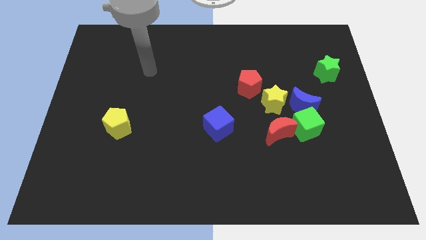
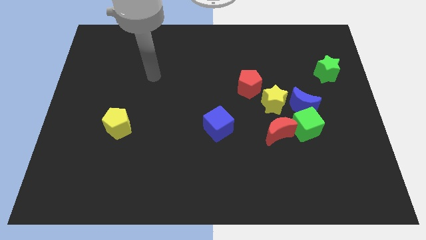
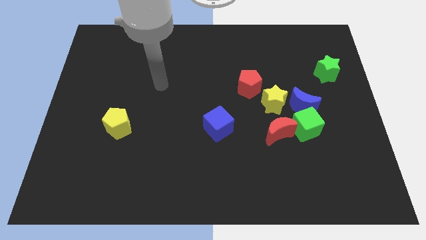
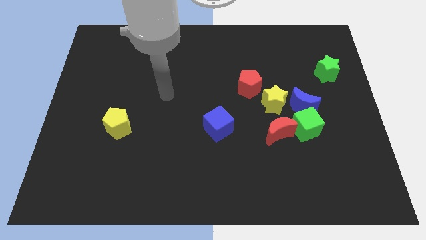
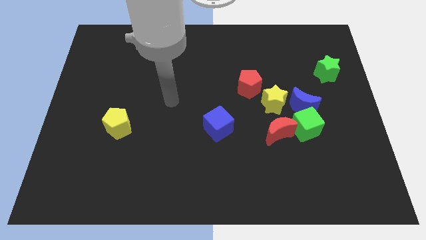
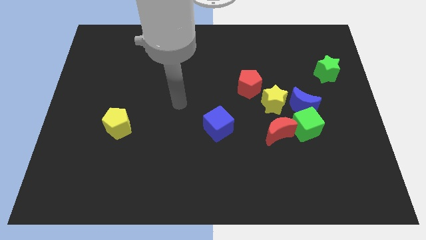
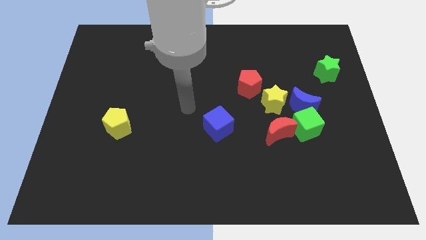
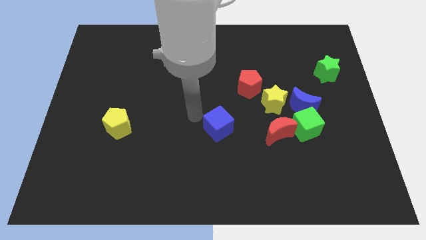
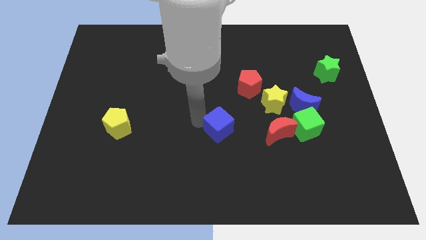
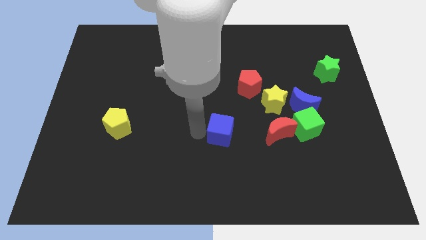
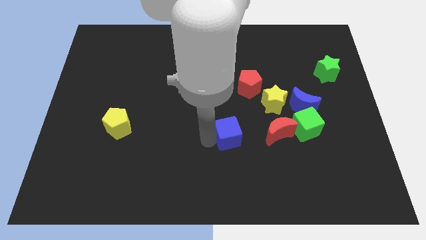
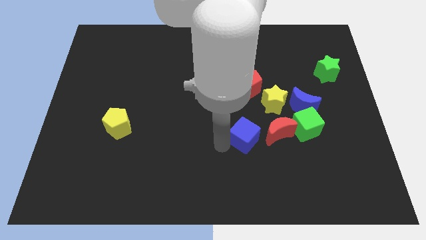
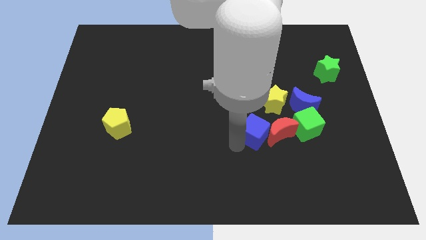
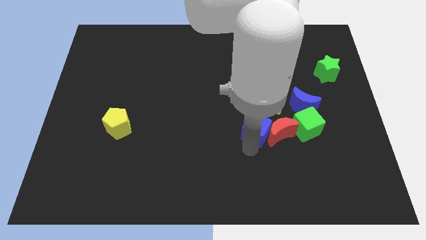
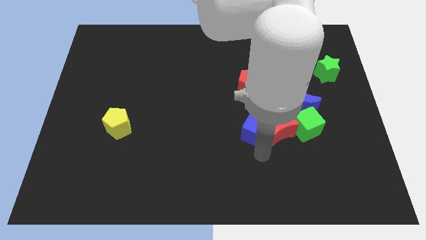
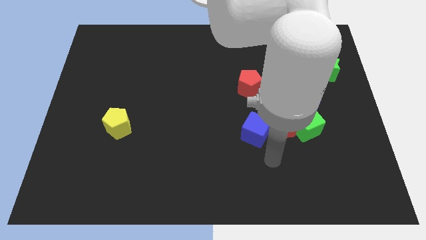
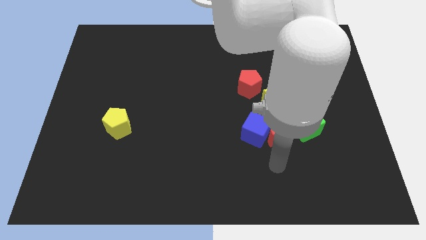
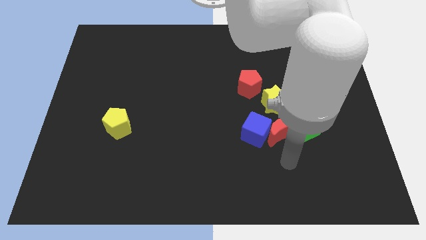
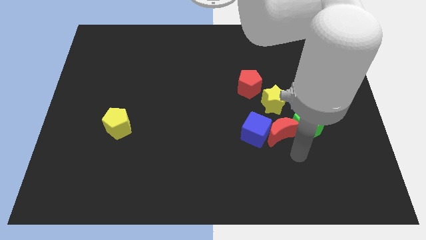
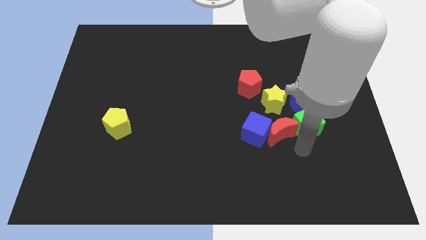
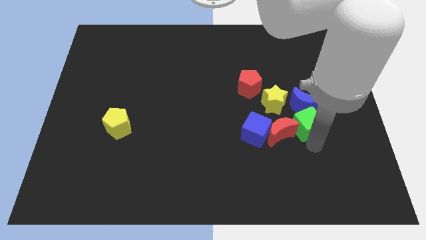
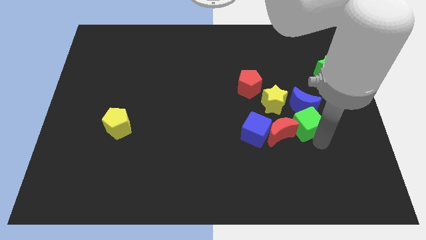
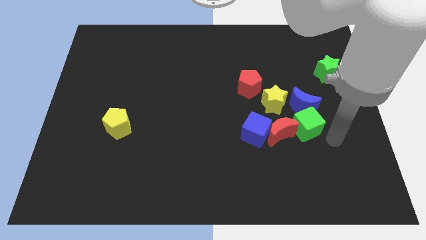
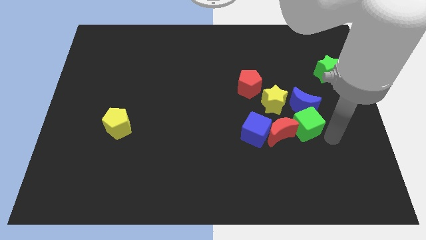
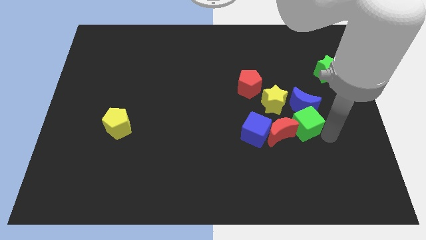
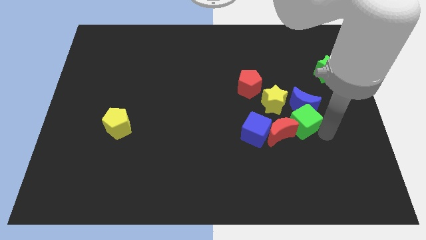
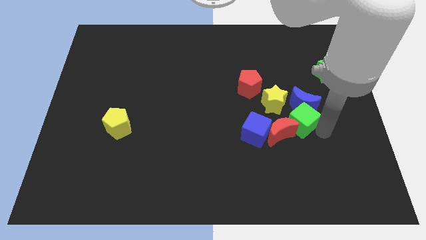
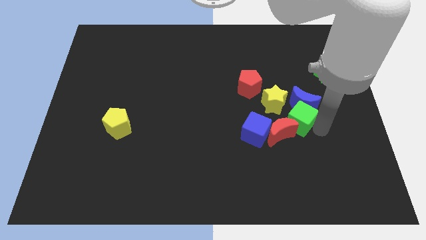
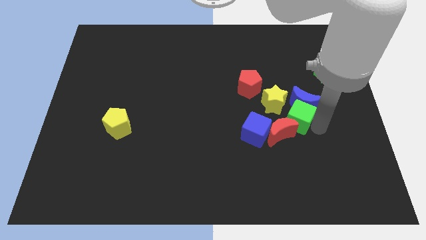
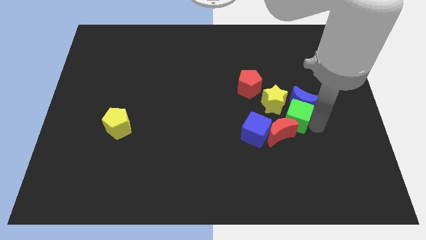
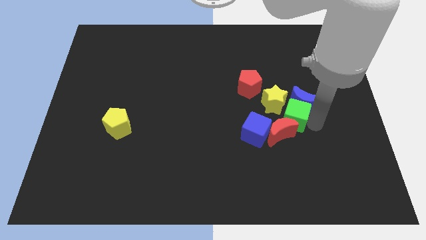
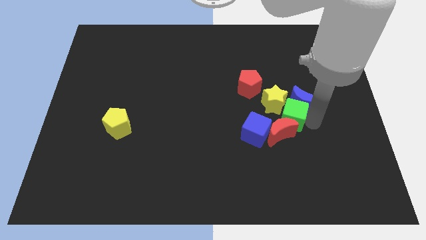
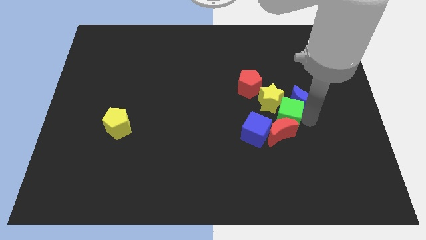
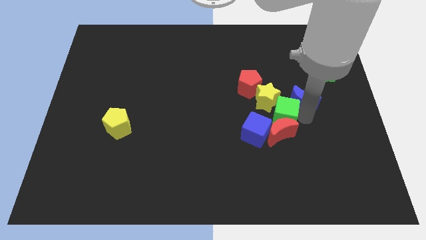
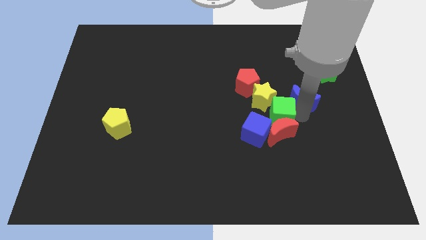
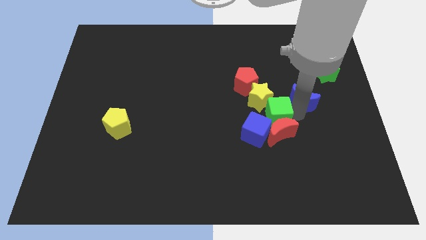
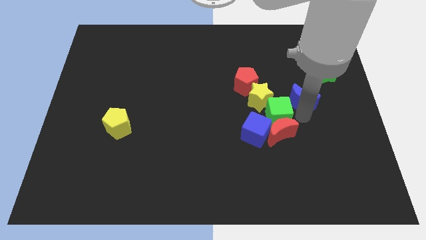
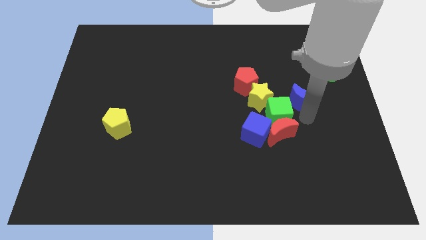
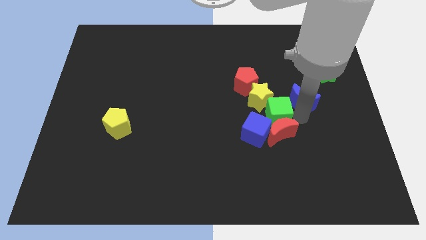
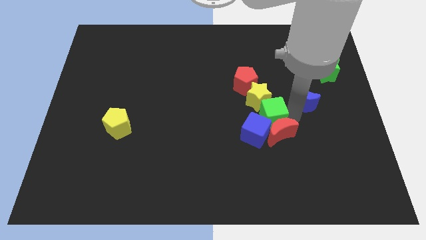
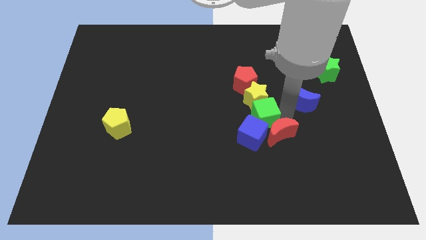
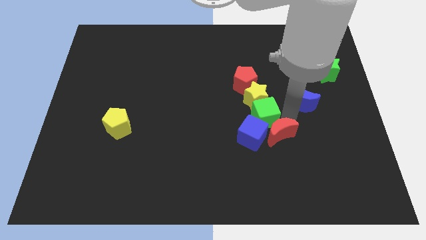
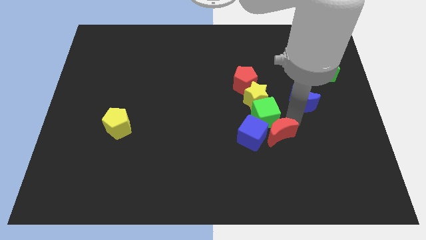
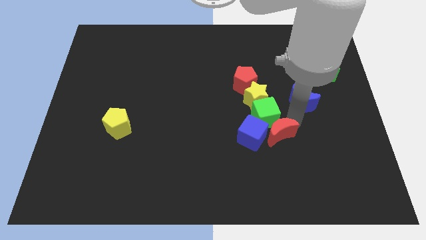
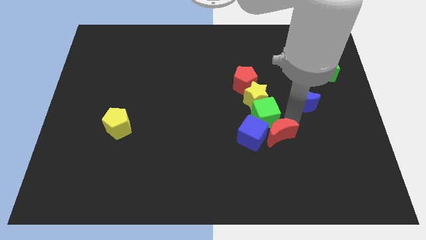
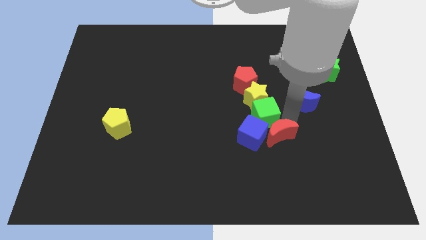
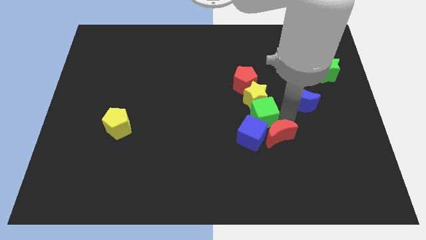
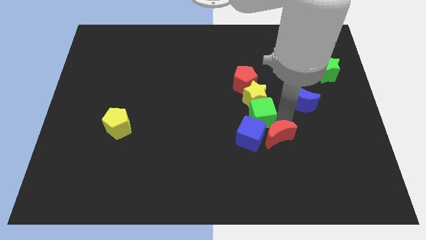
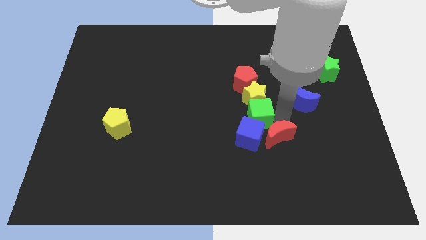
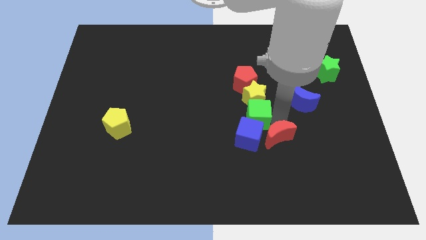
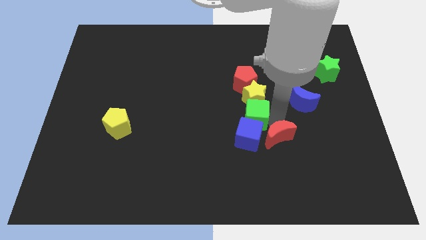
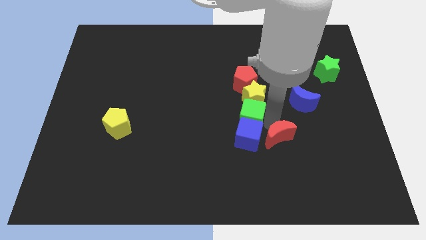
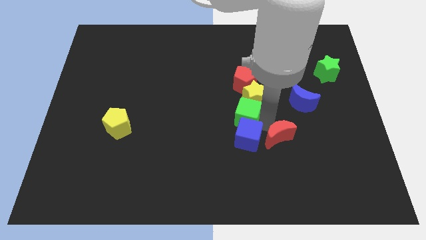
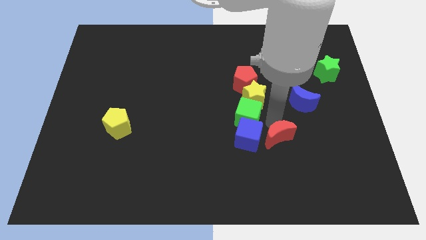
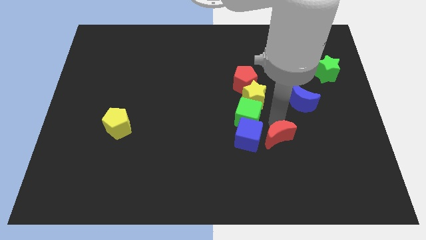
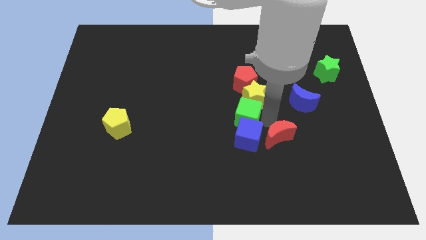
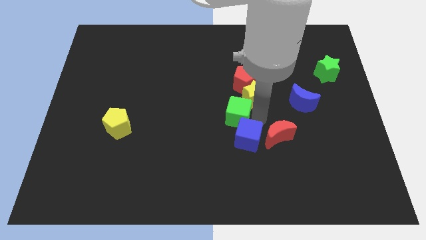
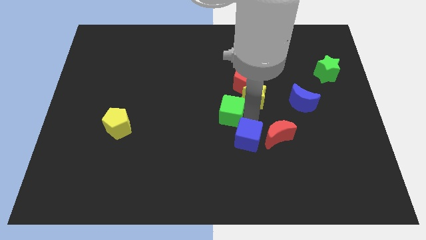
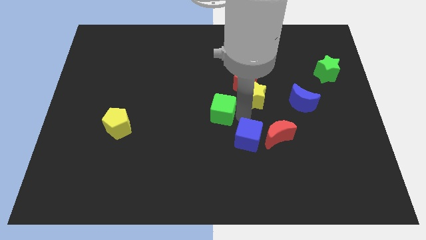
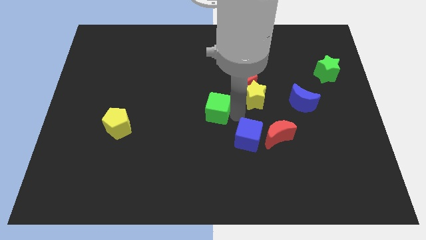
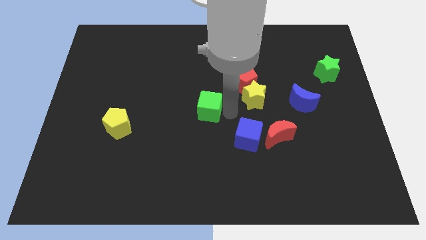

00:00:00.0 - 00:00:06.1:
push the green cube left

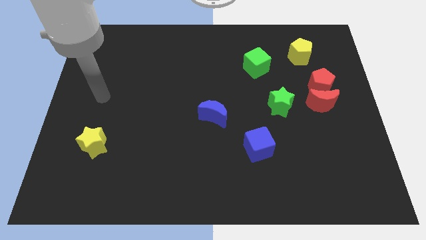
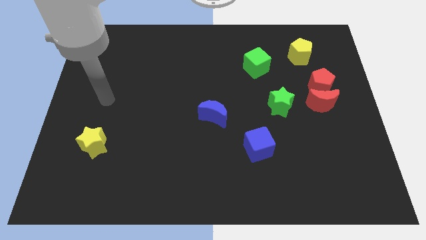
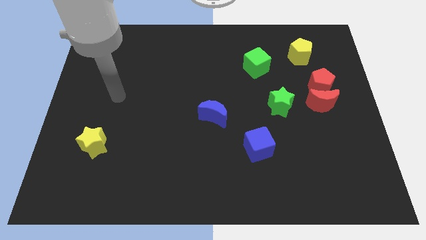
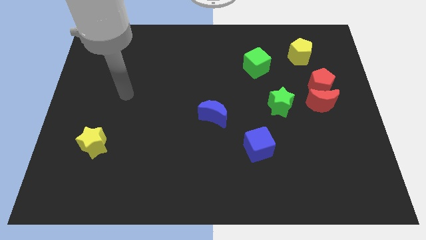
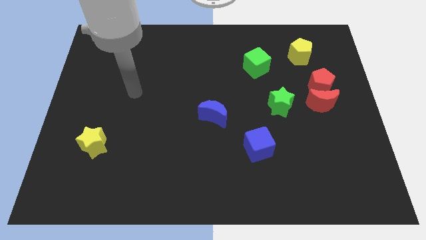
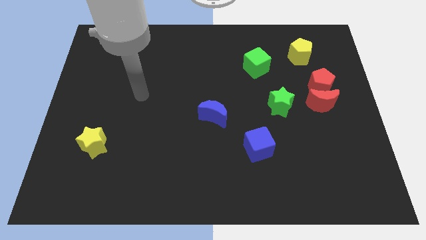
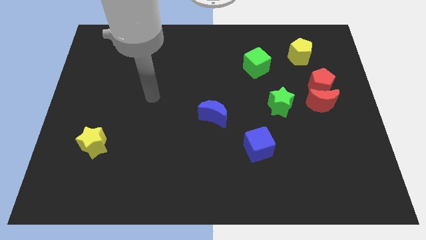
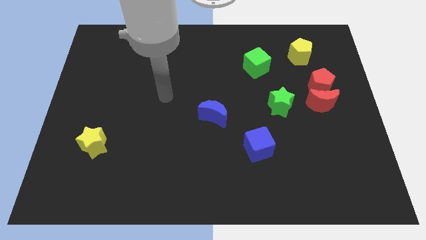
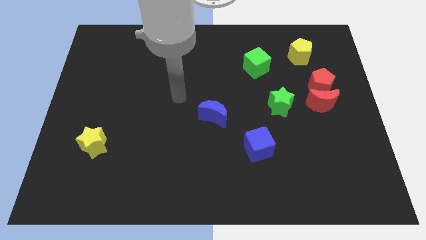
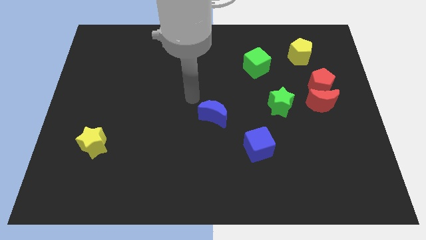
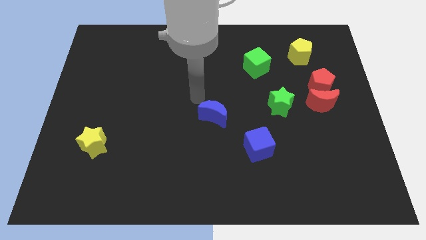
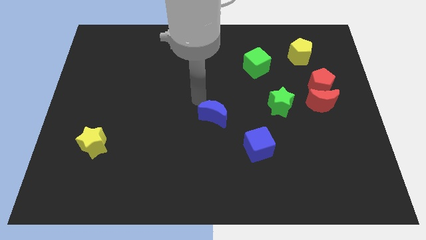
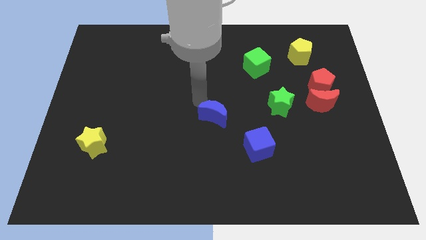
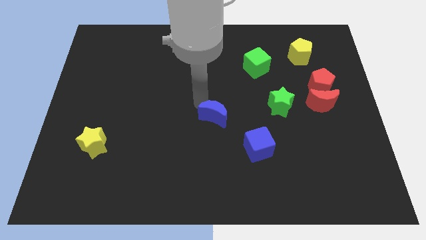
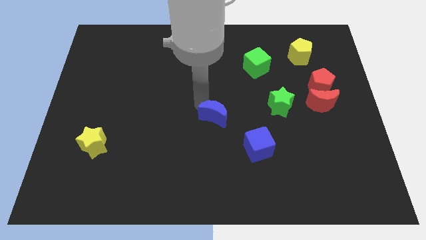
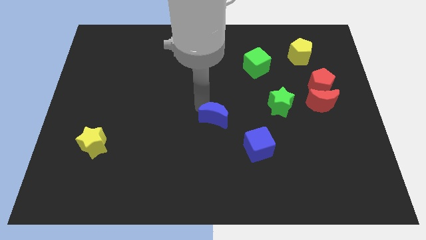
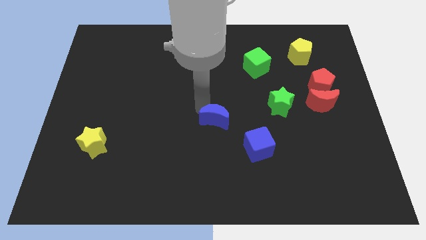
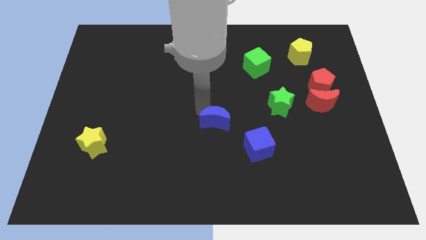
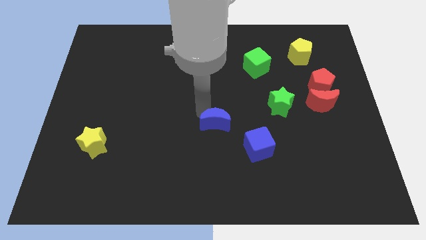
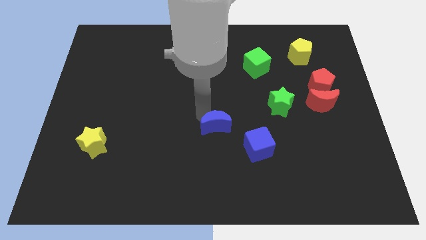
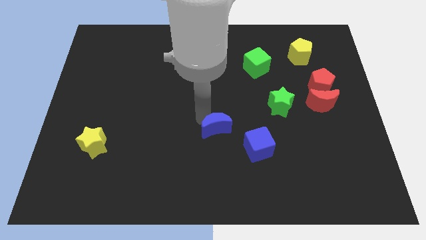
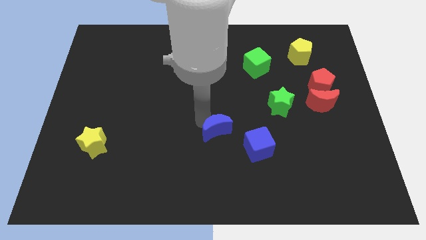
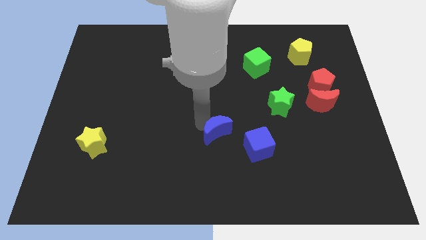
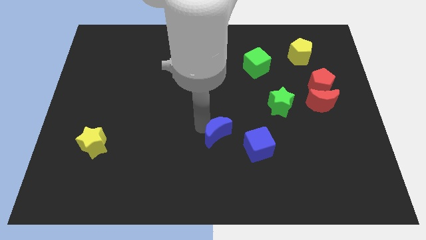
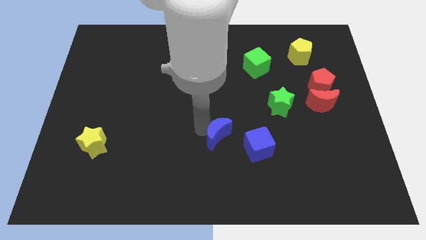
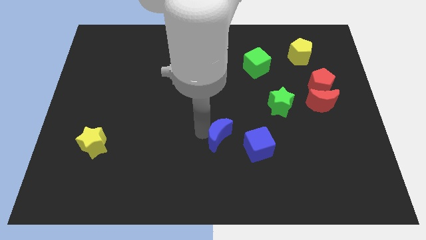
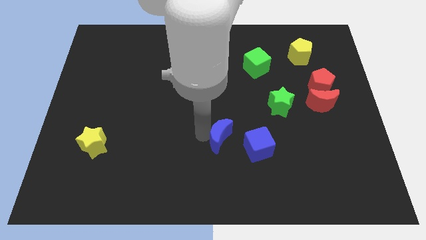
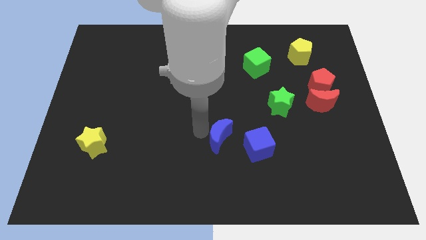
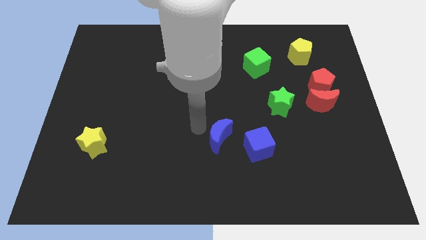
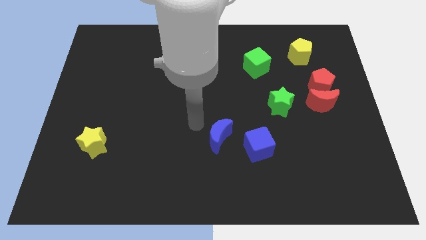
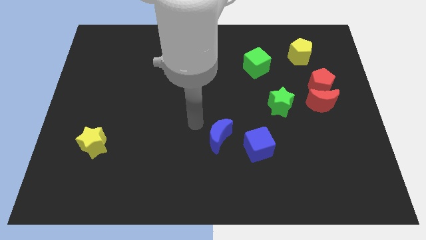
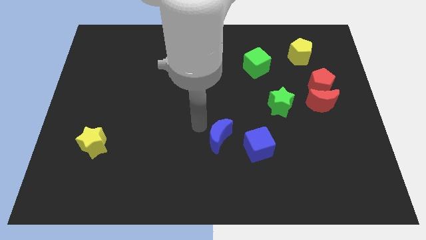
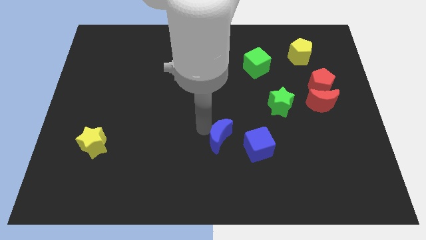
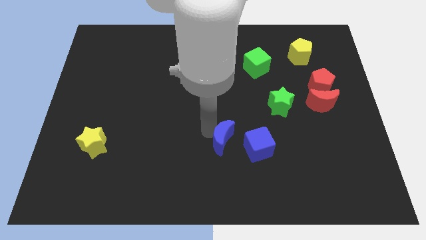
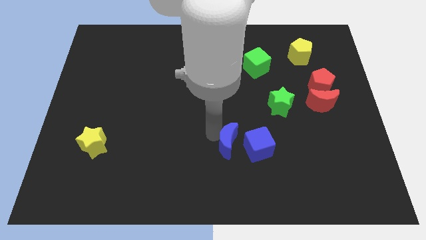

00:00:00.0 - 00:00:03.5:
slightly slide the blue moon downwards and to the right
